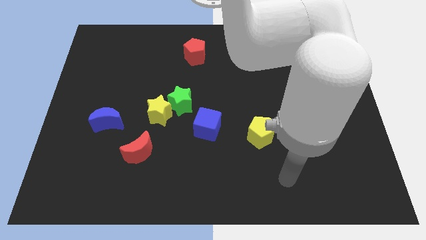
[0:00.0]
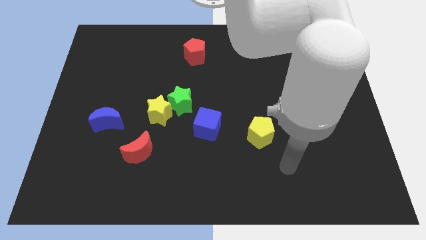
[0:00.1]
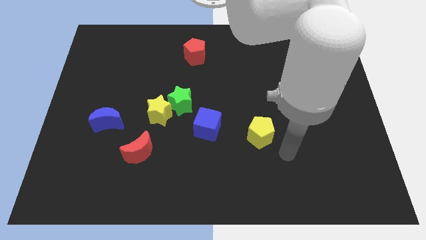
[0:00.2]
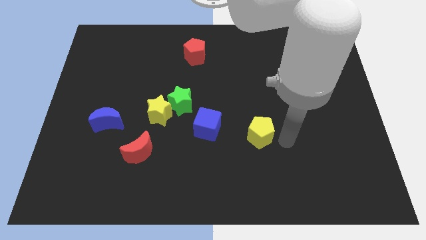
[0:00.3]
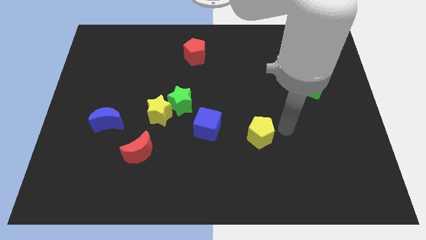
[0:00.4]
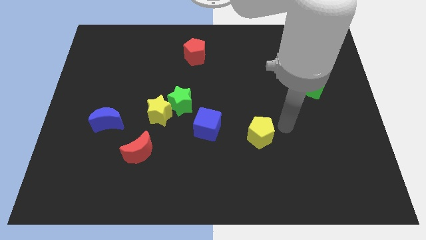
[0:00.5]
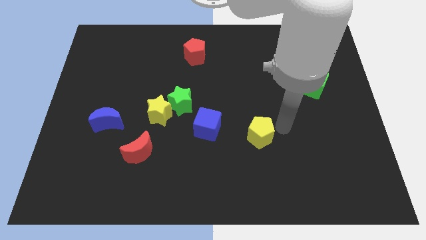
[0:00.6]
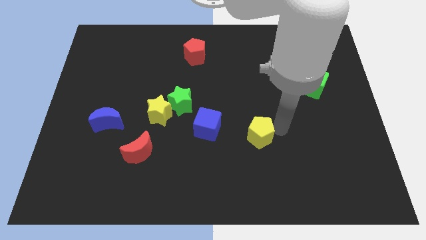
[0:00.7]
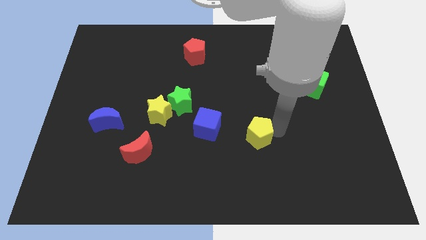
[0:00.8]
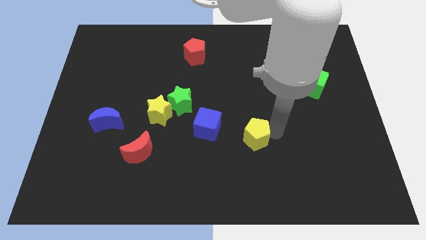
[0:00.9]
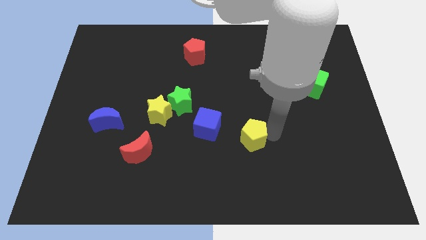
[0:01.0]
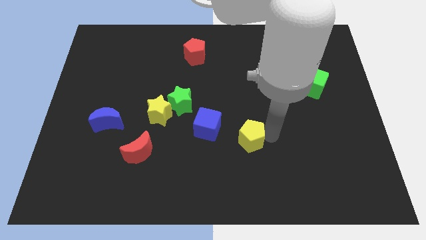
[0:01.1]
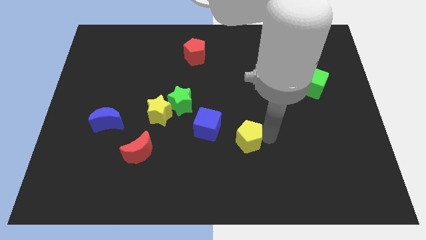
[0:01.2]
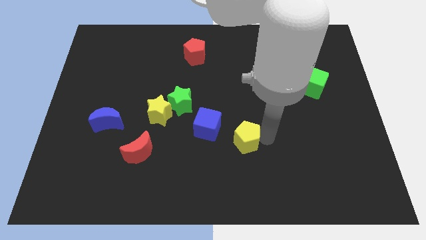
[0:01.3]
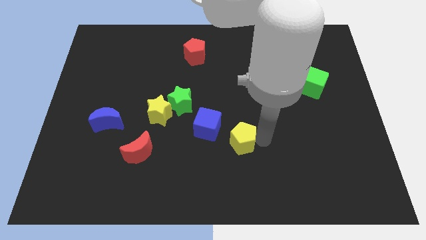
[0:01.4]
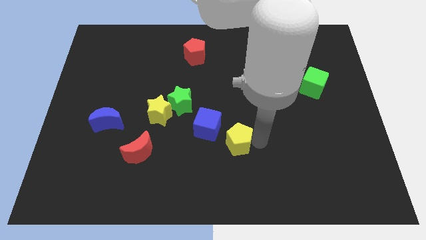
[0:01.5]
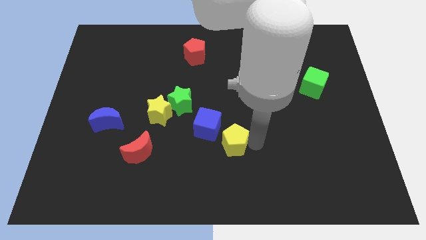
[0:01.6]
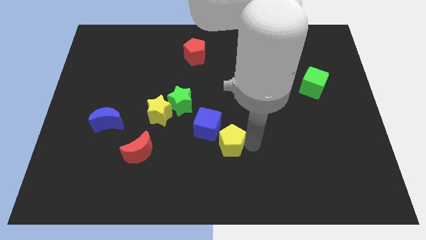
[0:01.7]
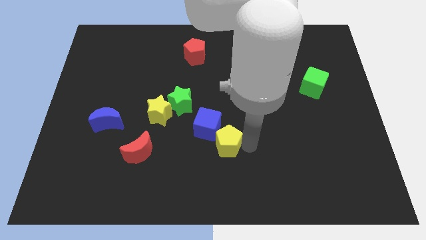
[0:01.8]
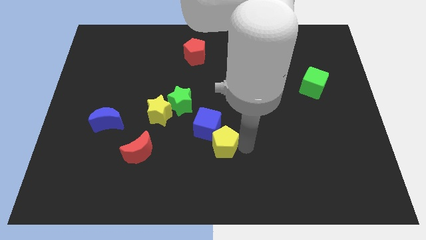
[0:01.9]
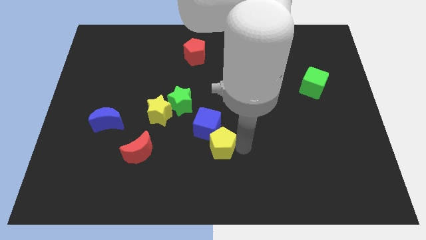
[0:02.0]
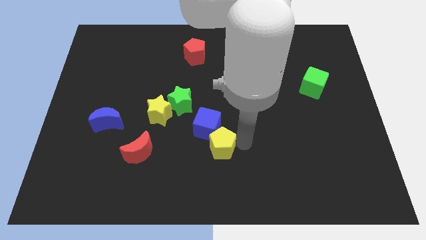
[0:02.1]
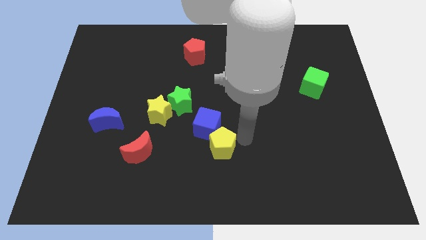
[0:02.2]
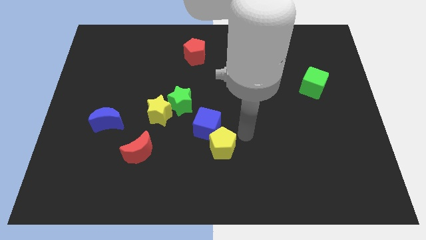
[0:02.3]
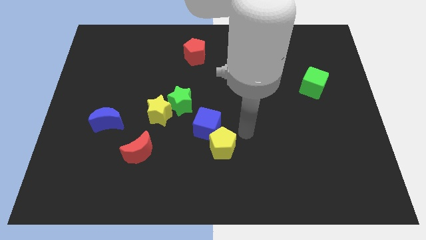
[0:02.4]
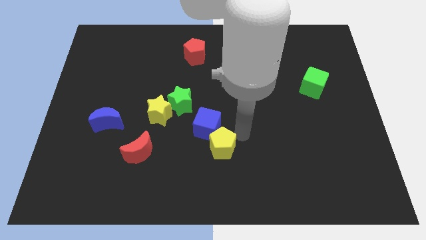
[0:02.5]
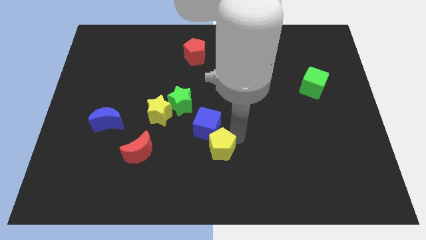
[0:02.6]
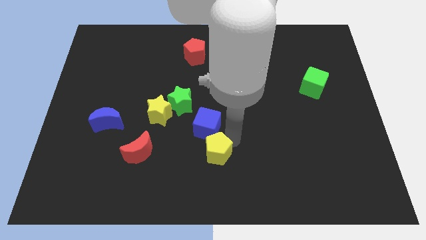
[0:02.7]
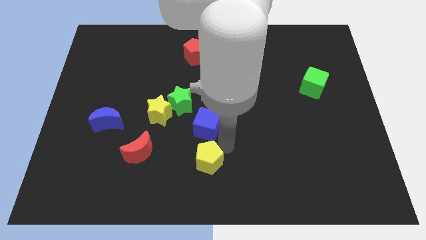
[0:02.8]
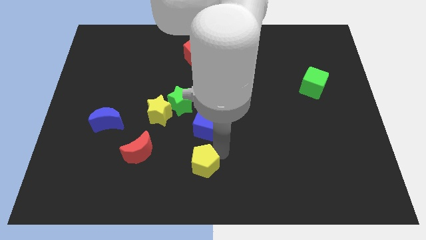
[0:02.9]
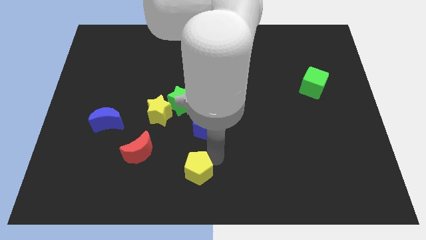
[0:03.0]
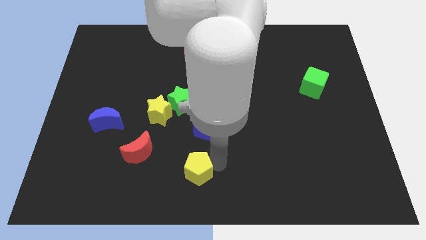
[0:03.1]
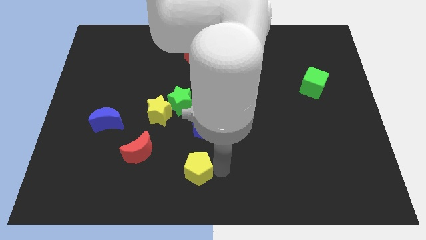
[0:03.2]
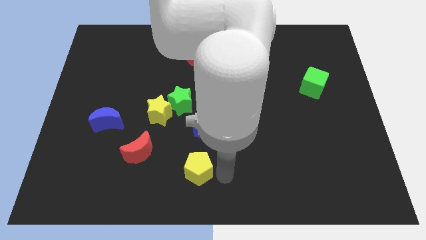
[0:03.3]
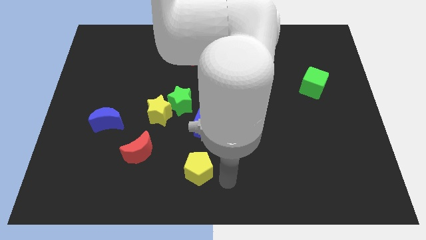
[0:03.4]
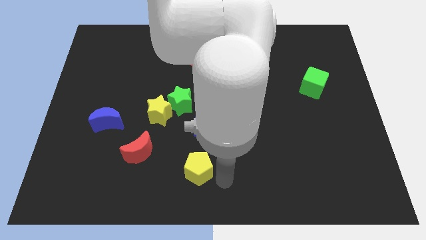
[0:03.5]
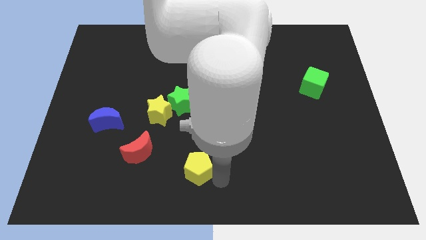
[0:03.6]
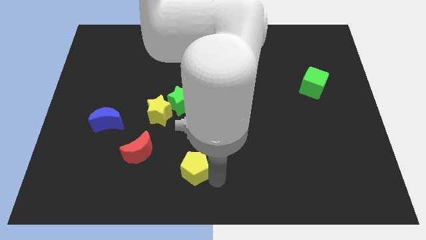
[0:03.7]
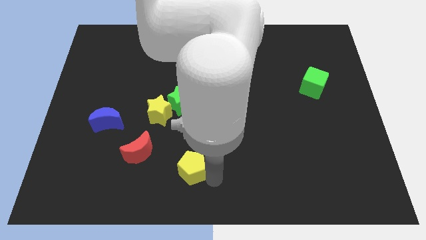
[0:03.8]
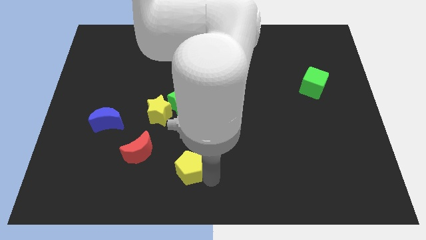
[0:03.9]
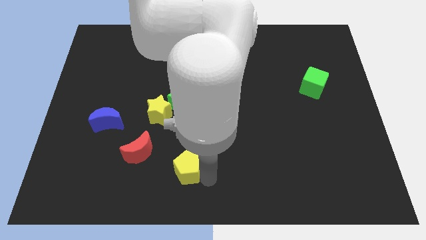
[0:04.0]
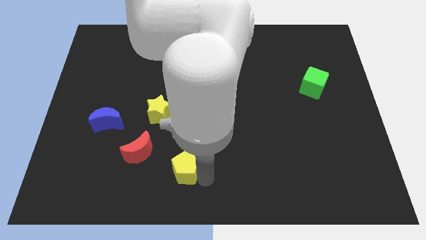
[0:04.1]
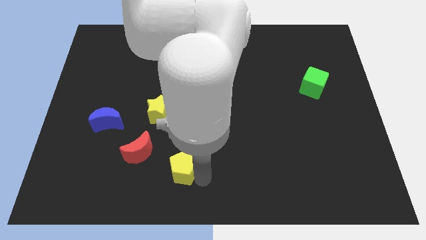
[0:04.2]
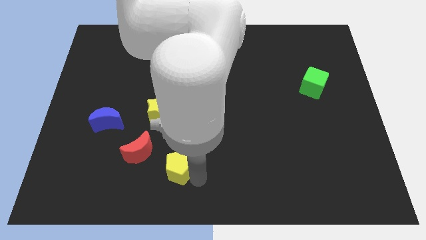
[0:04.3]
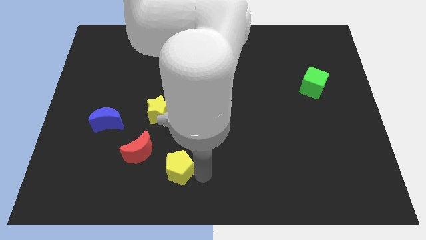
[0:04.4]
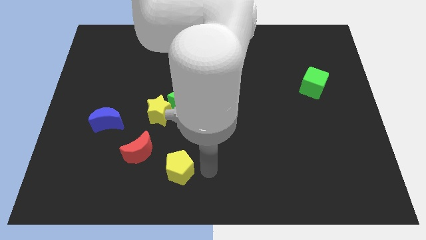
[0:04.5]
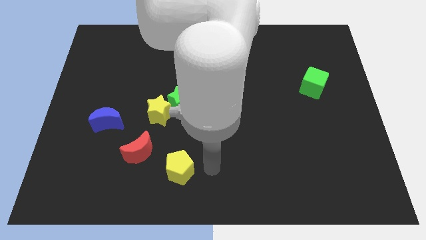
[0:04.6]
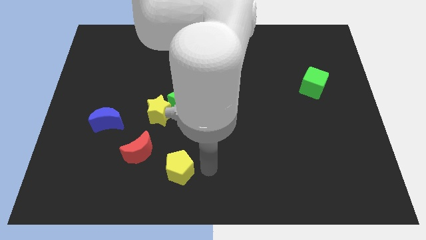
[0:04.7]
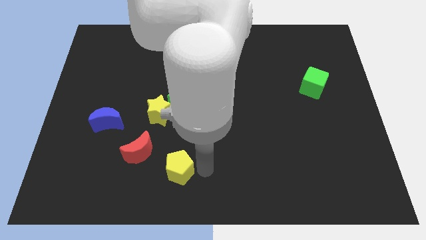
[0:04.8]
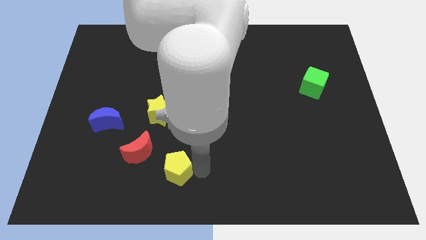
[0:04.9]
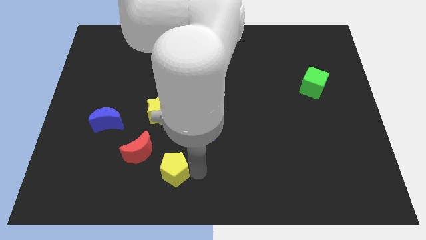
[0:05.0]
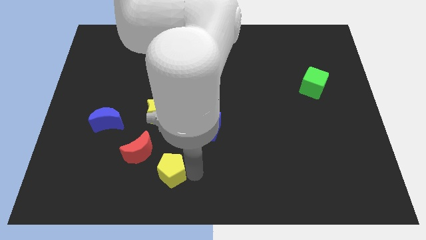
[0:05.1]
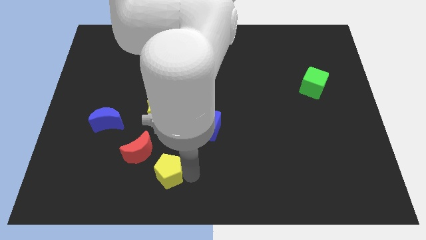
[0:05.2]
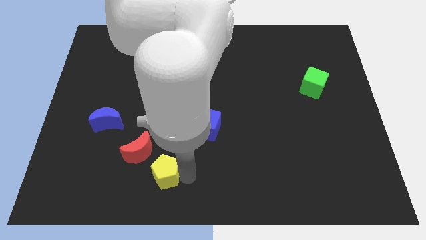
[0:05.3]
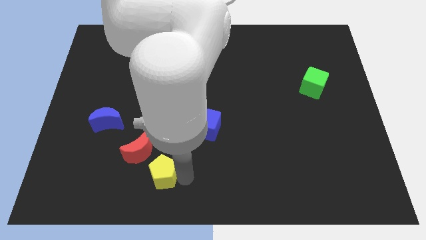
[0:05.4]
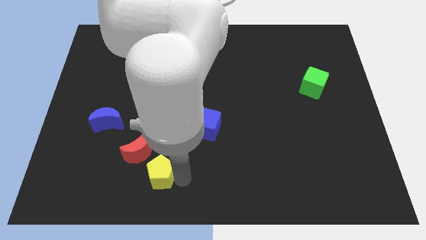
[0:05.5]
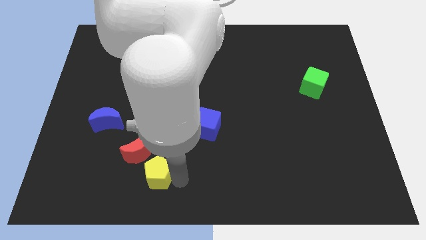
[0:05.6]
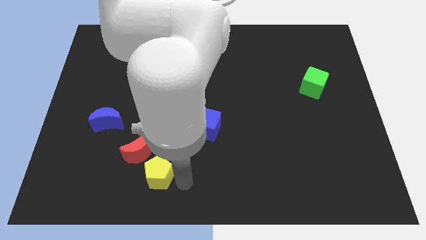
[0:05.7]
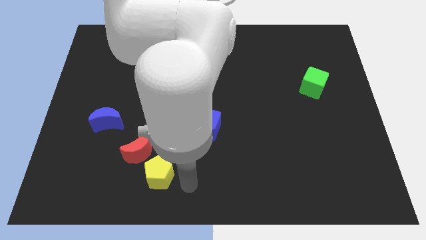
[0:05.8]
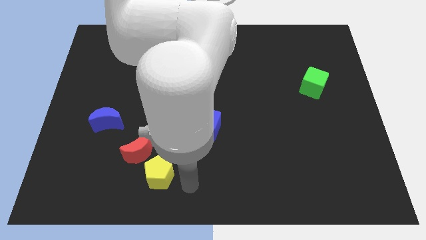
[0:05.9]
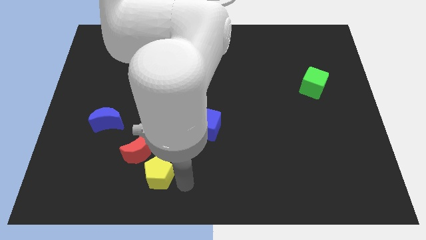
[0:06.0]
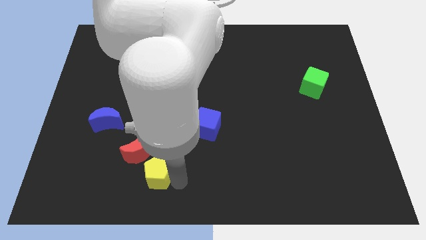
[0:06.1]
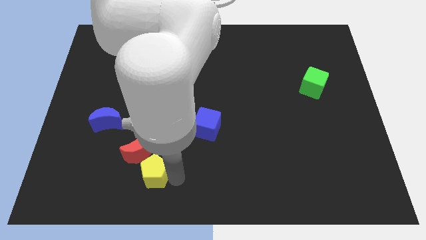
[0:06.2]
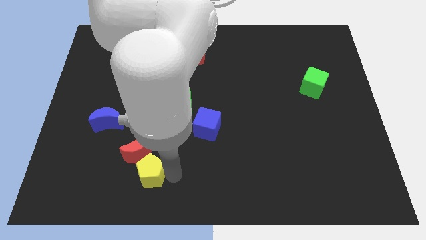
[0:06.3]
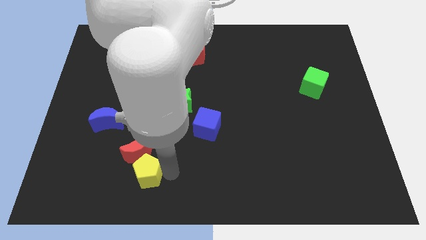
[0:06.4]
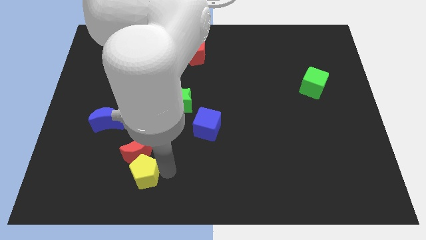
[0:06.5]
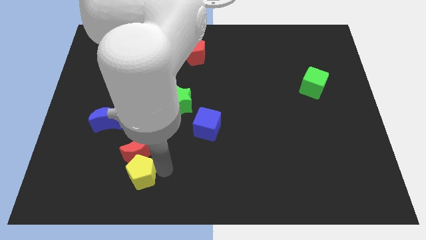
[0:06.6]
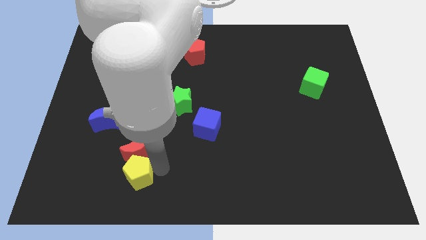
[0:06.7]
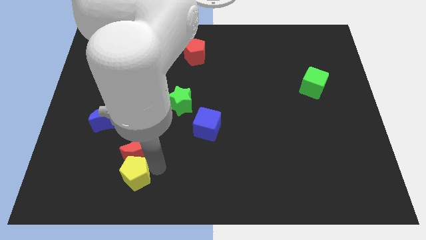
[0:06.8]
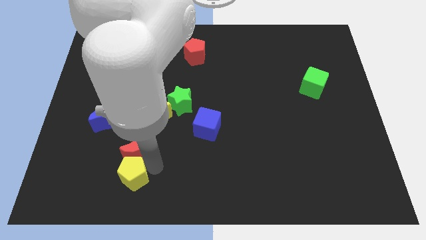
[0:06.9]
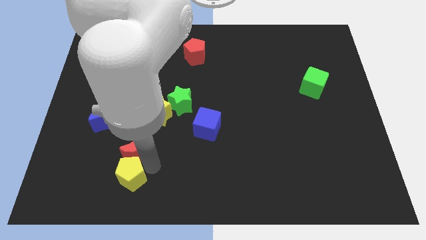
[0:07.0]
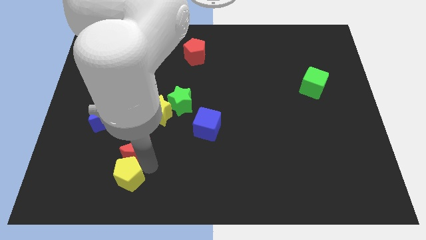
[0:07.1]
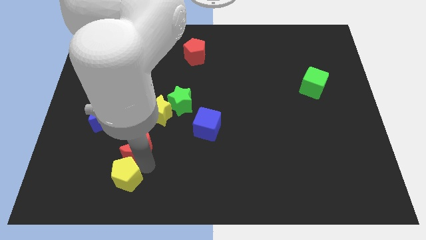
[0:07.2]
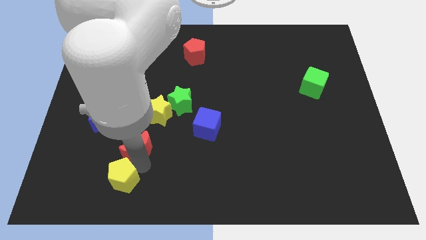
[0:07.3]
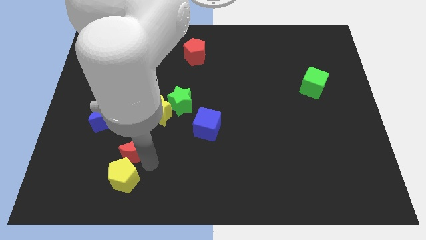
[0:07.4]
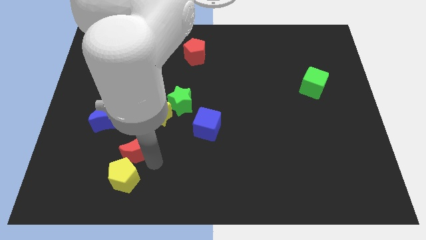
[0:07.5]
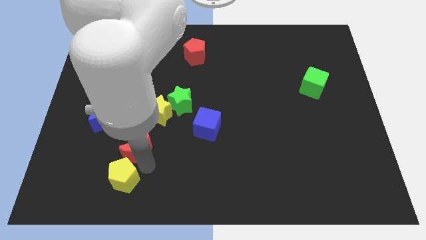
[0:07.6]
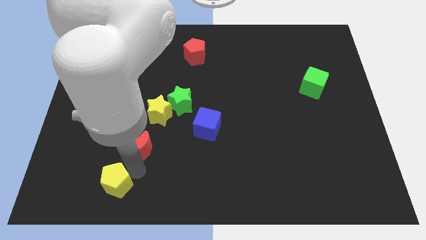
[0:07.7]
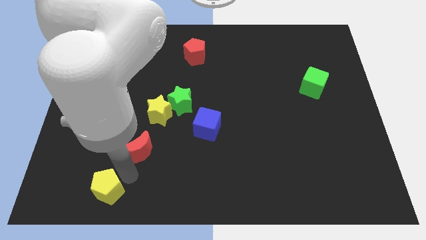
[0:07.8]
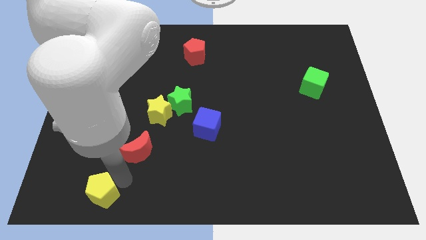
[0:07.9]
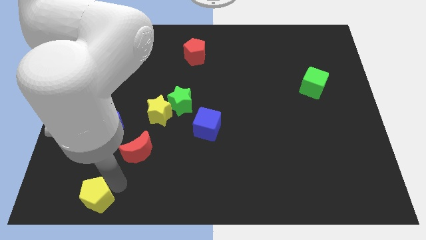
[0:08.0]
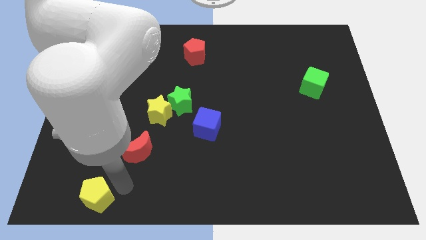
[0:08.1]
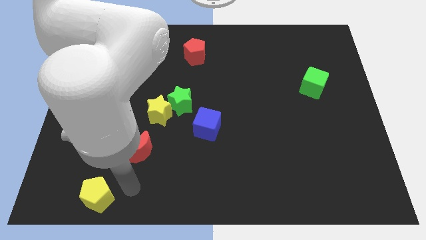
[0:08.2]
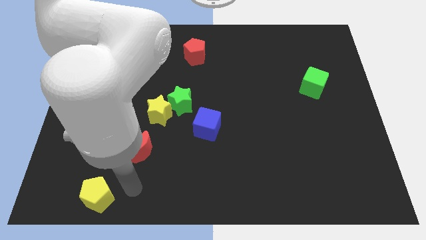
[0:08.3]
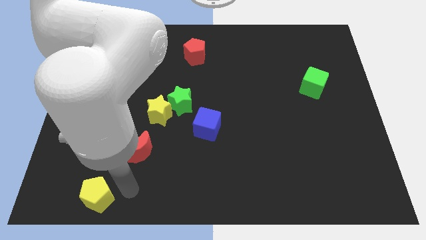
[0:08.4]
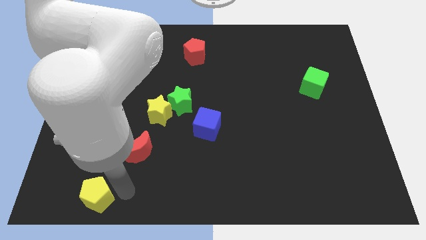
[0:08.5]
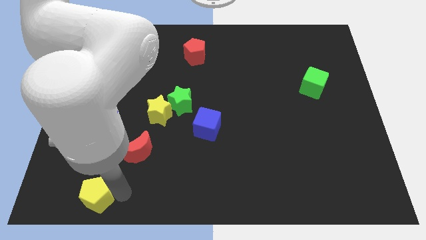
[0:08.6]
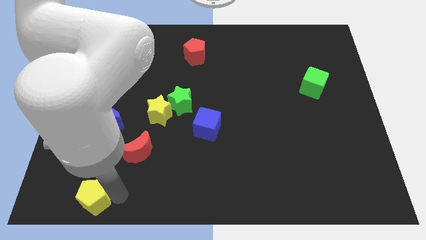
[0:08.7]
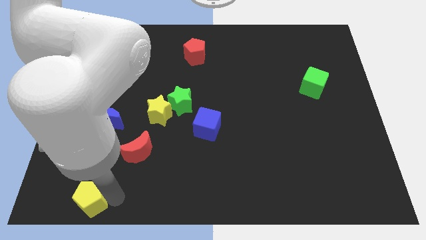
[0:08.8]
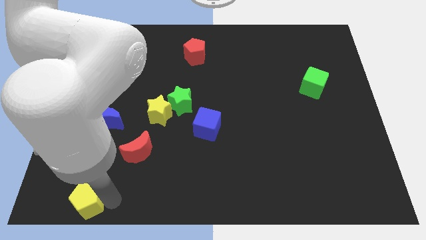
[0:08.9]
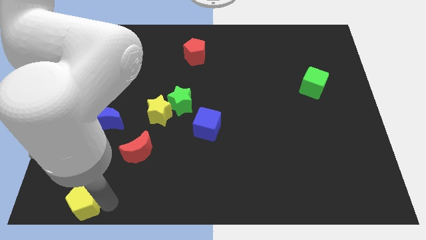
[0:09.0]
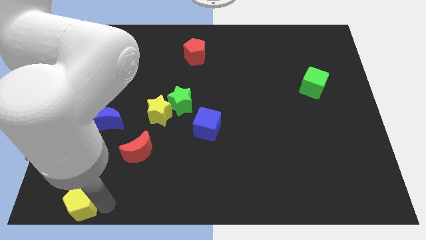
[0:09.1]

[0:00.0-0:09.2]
push the yellow pentagon to the bottom left corner
